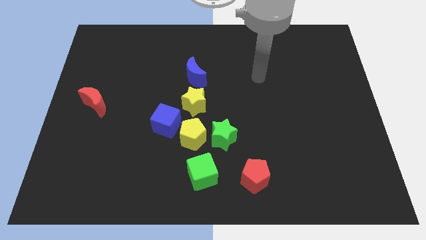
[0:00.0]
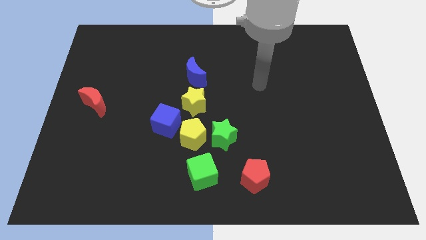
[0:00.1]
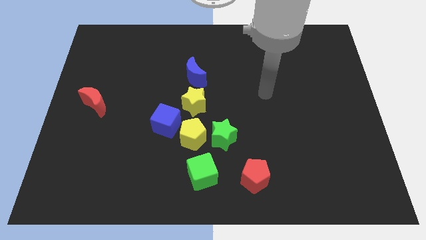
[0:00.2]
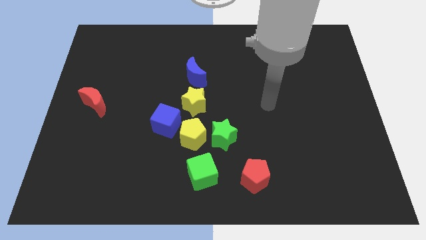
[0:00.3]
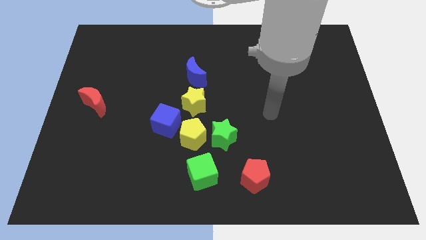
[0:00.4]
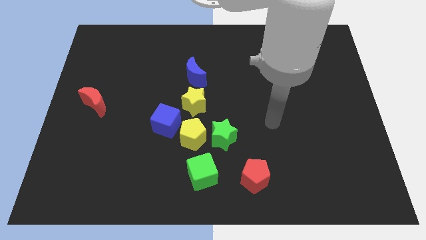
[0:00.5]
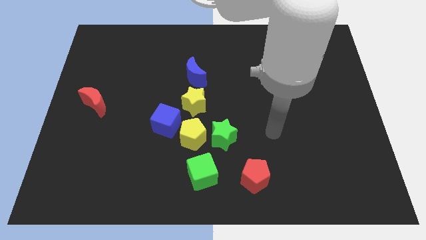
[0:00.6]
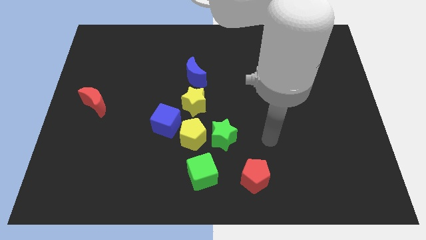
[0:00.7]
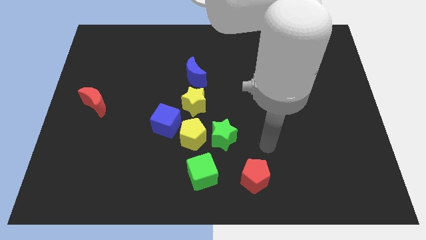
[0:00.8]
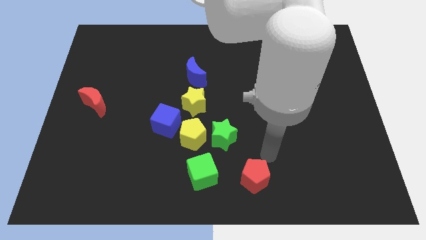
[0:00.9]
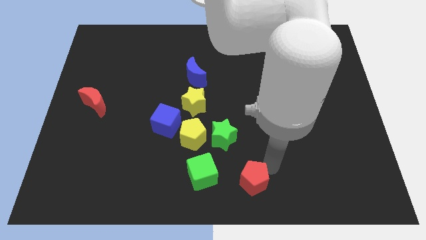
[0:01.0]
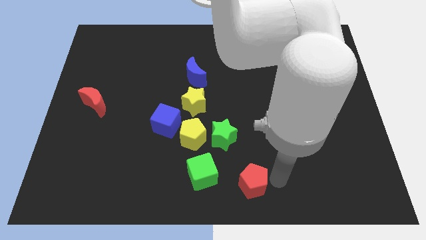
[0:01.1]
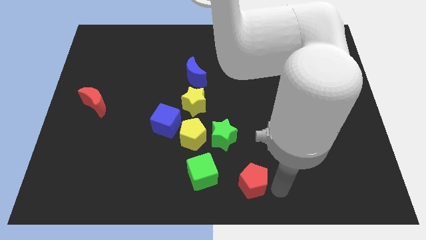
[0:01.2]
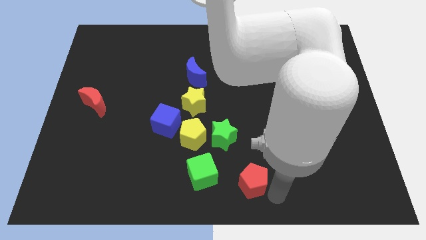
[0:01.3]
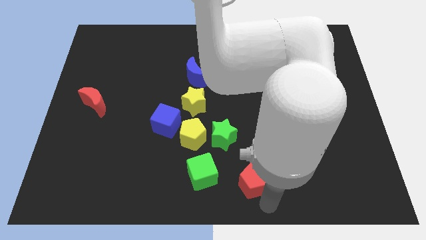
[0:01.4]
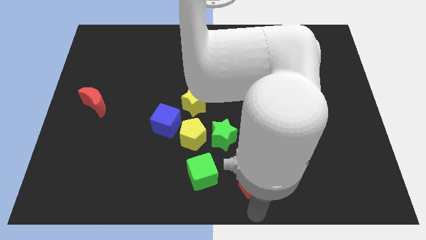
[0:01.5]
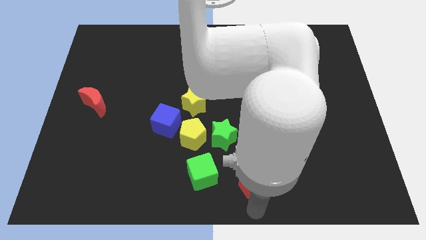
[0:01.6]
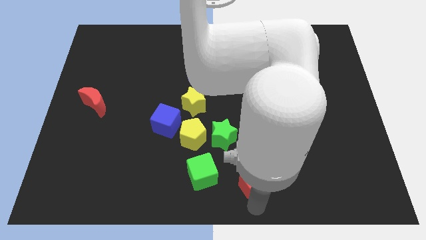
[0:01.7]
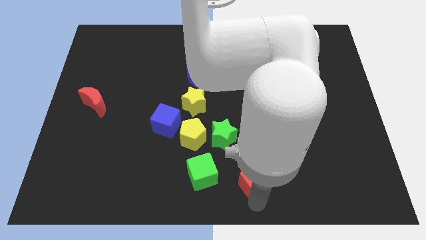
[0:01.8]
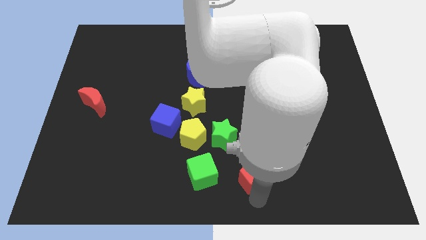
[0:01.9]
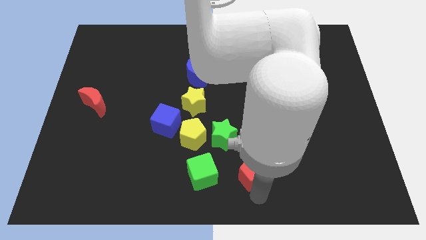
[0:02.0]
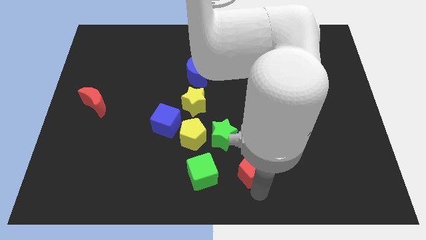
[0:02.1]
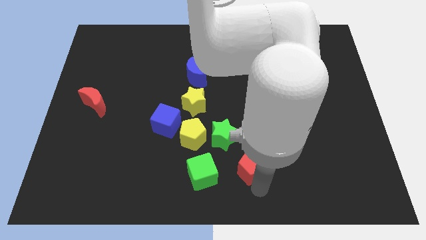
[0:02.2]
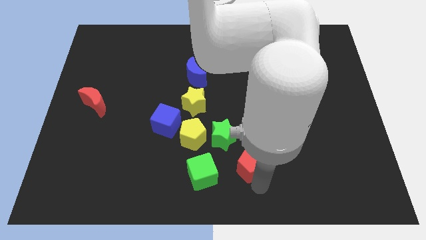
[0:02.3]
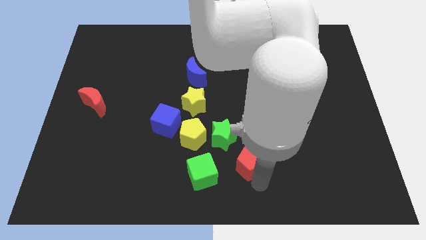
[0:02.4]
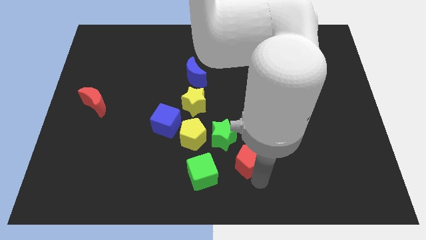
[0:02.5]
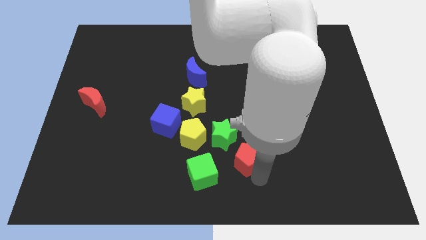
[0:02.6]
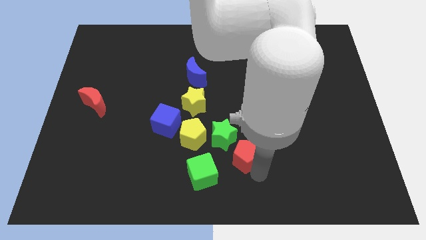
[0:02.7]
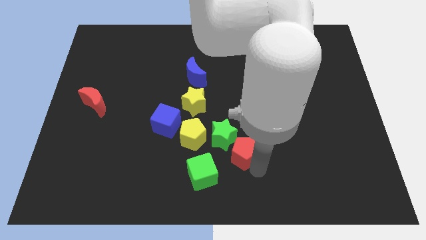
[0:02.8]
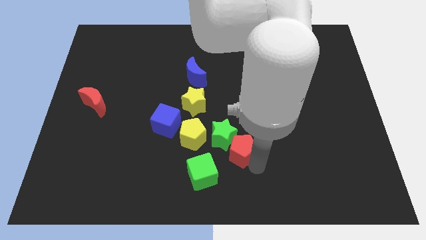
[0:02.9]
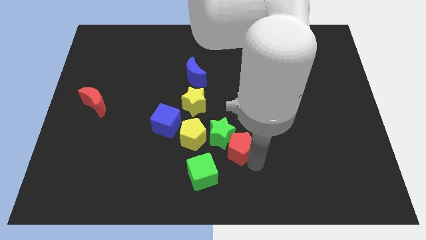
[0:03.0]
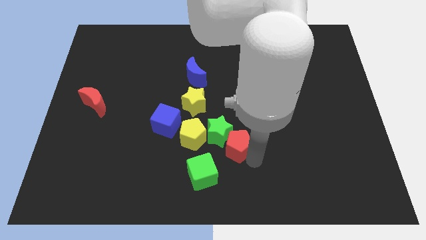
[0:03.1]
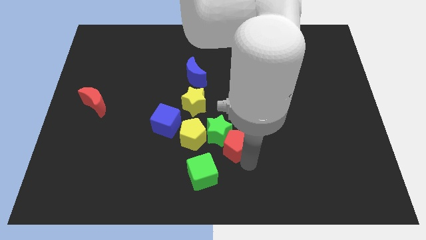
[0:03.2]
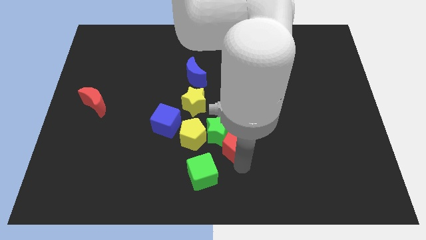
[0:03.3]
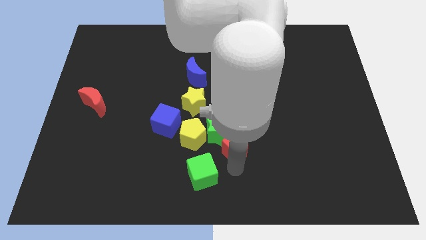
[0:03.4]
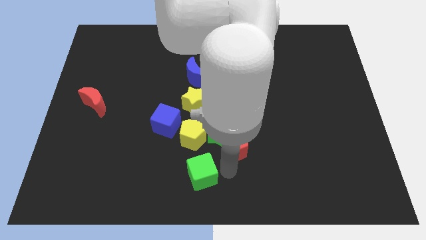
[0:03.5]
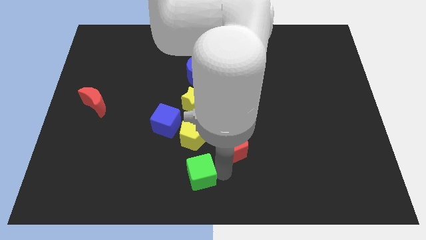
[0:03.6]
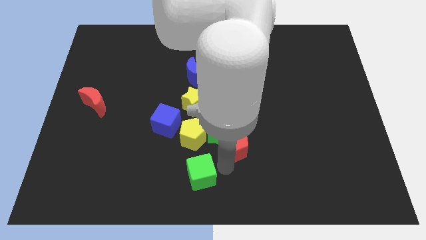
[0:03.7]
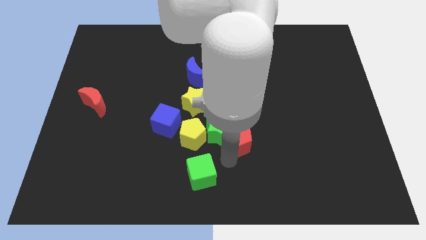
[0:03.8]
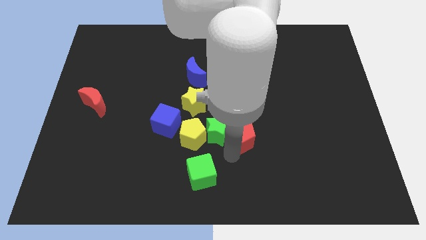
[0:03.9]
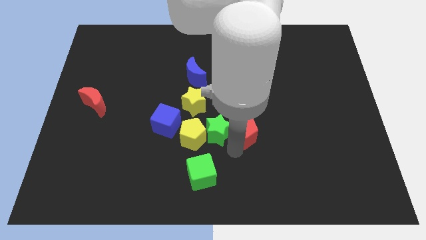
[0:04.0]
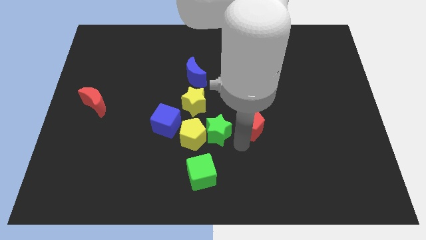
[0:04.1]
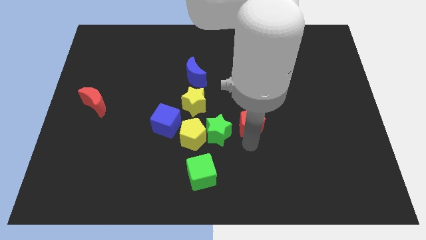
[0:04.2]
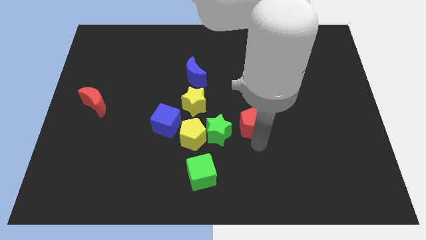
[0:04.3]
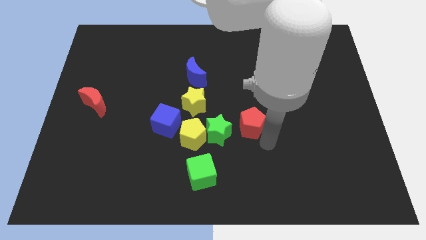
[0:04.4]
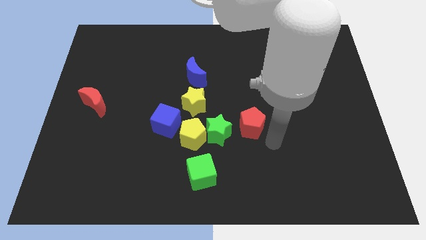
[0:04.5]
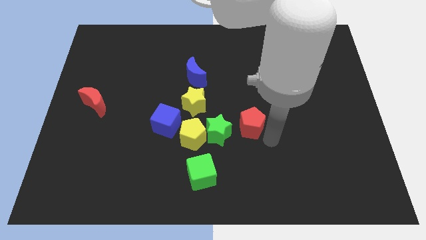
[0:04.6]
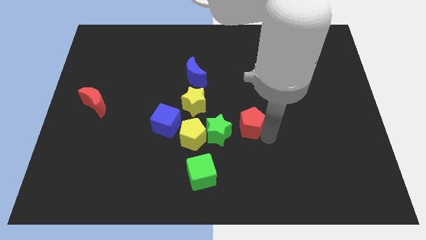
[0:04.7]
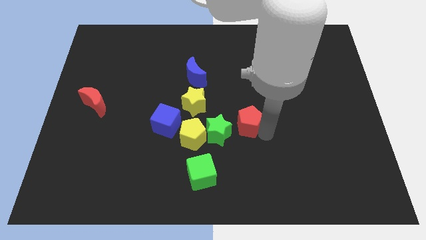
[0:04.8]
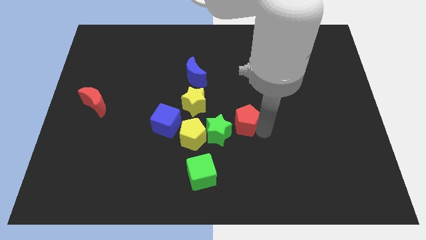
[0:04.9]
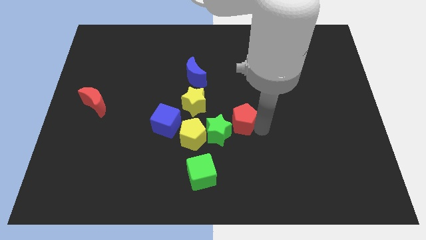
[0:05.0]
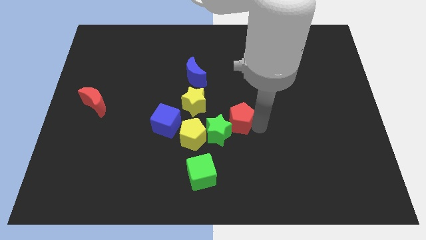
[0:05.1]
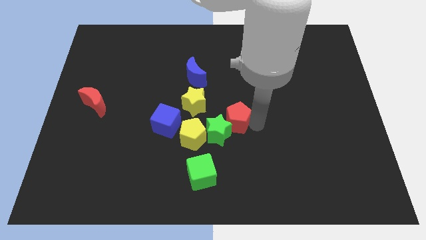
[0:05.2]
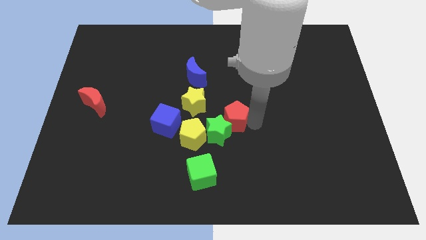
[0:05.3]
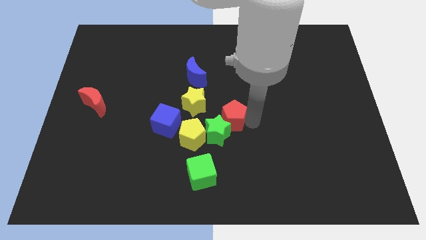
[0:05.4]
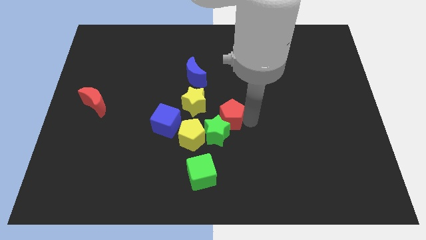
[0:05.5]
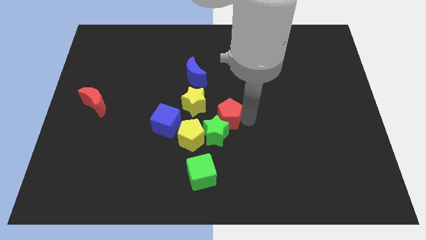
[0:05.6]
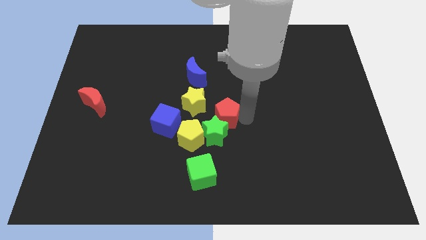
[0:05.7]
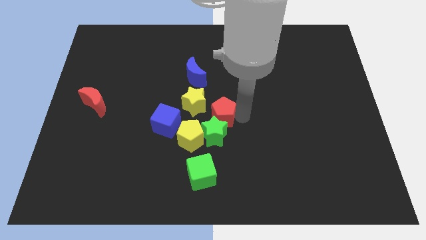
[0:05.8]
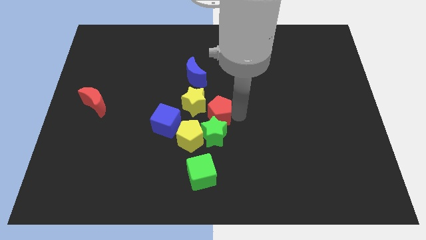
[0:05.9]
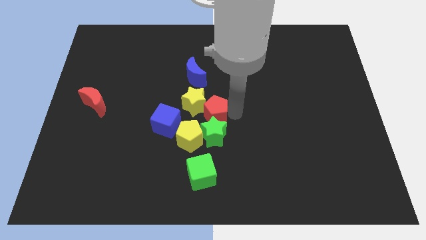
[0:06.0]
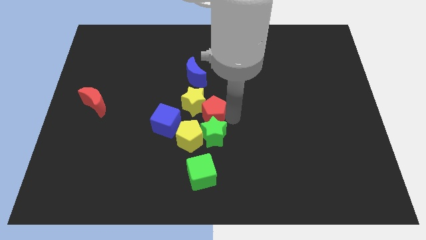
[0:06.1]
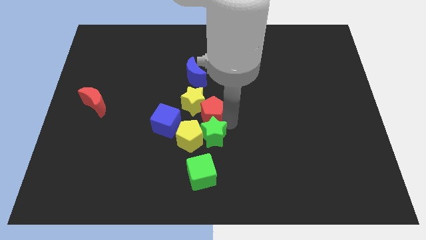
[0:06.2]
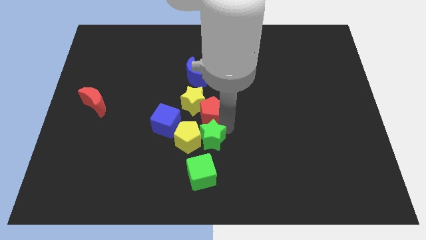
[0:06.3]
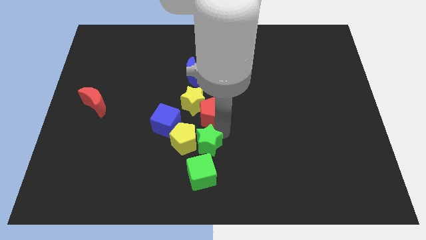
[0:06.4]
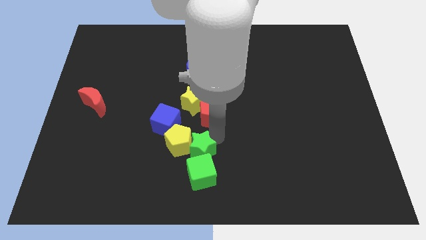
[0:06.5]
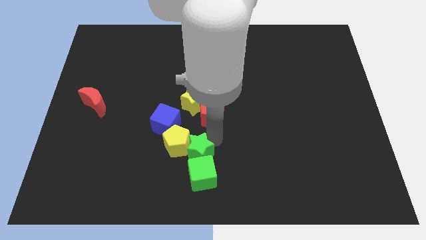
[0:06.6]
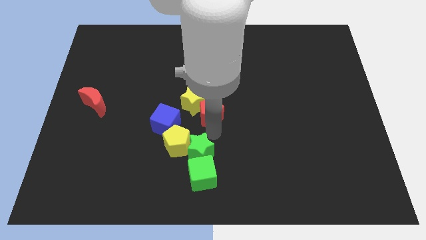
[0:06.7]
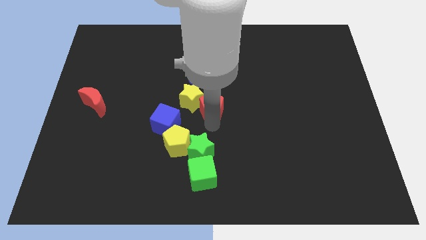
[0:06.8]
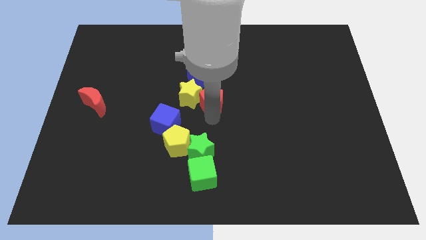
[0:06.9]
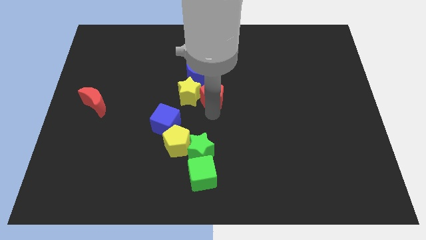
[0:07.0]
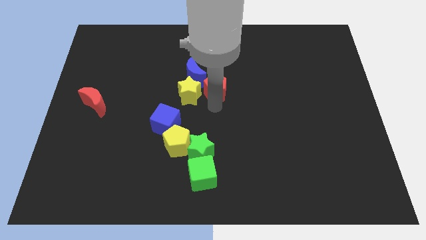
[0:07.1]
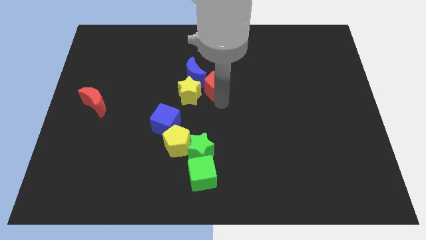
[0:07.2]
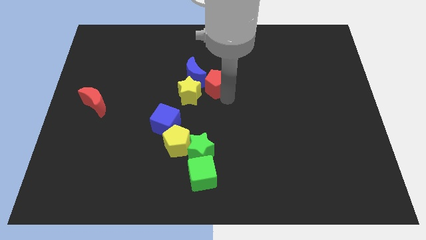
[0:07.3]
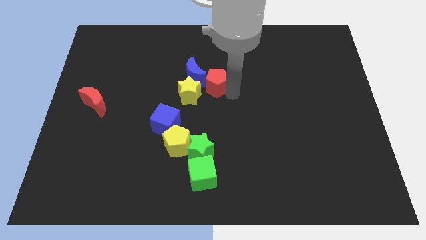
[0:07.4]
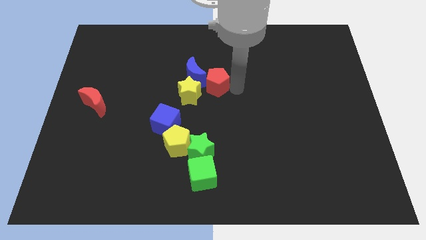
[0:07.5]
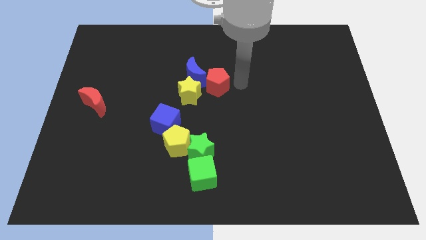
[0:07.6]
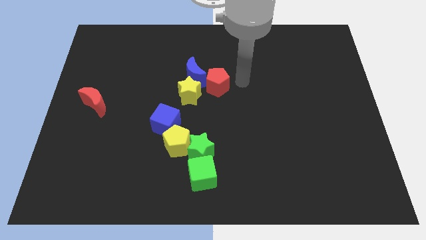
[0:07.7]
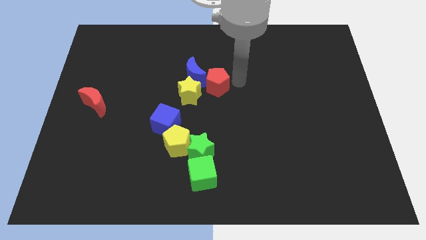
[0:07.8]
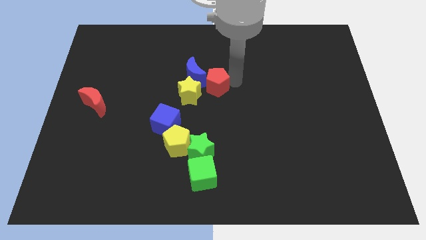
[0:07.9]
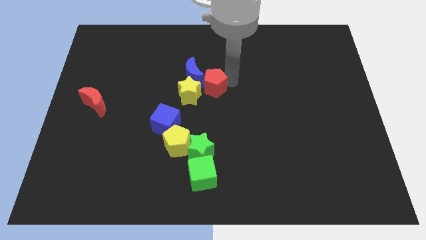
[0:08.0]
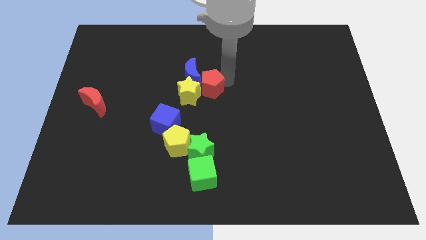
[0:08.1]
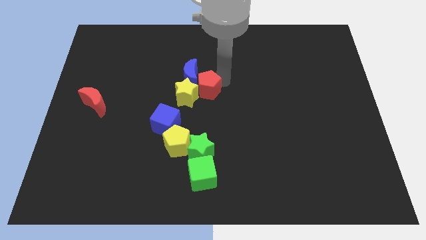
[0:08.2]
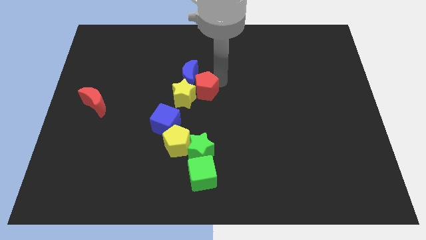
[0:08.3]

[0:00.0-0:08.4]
move the red pentagon up and then to the left
